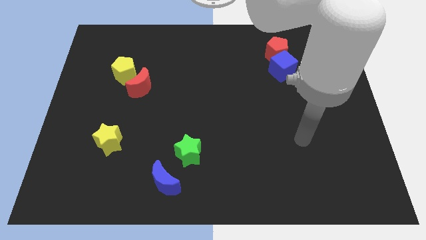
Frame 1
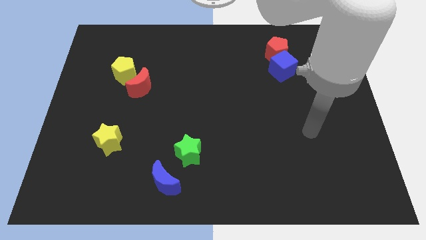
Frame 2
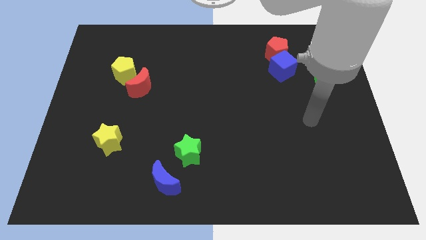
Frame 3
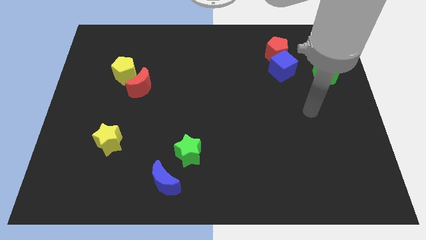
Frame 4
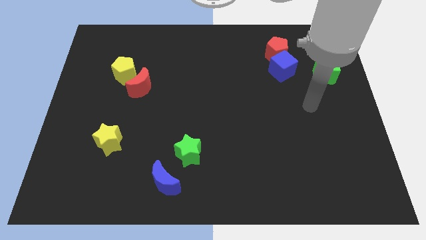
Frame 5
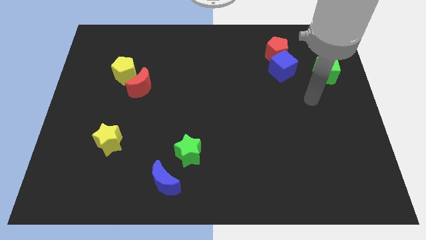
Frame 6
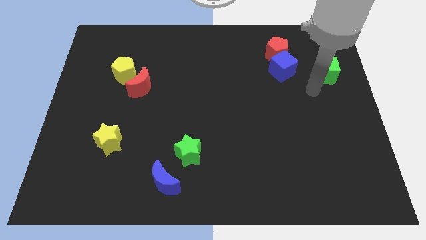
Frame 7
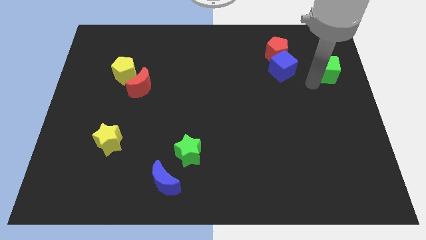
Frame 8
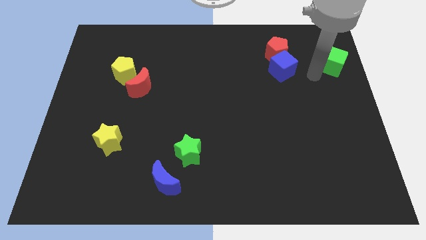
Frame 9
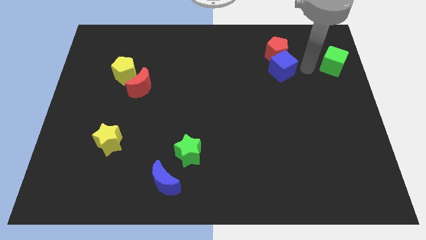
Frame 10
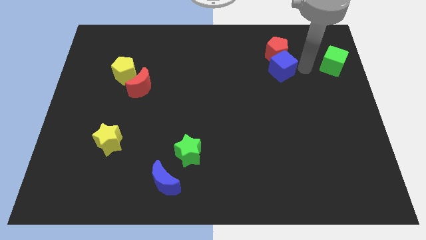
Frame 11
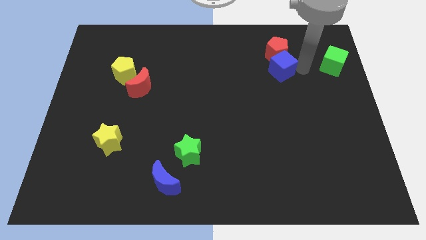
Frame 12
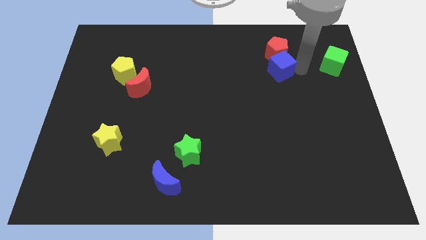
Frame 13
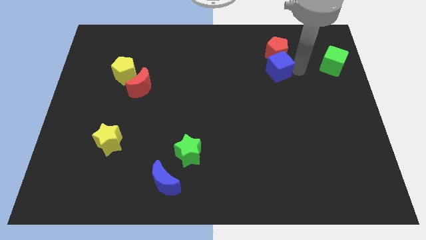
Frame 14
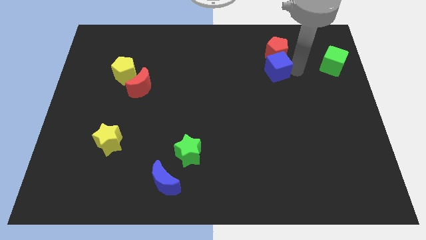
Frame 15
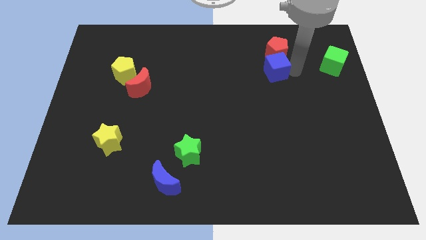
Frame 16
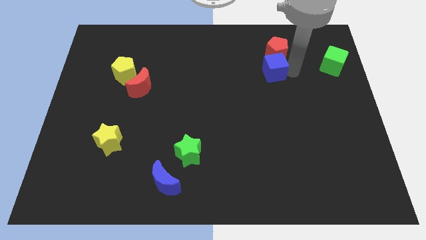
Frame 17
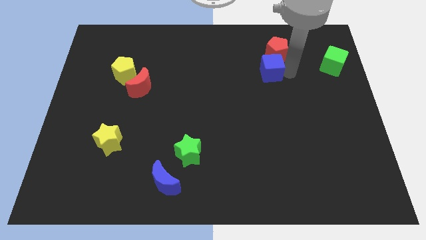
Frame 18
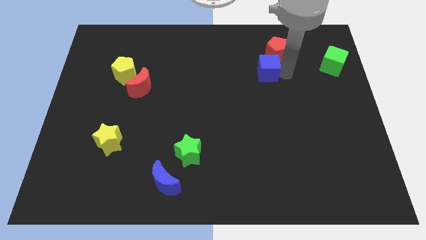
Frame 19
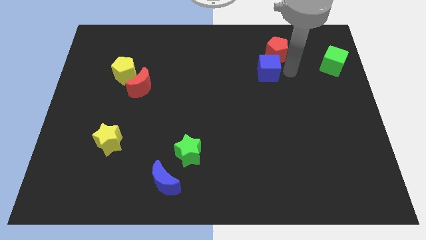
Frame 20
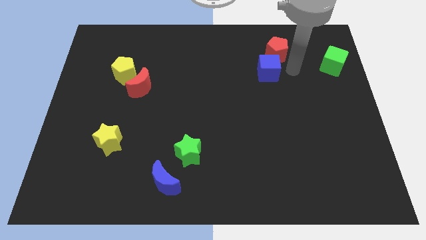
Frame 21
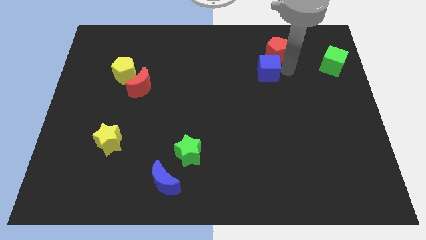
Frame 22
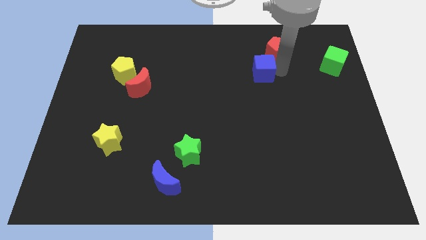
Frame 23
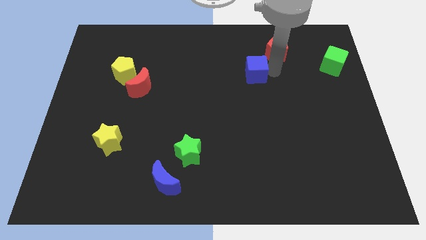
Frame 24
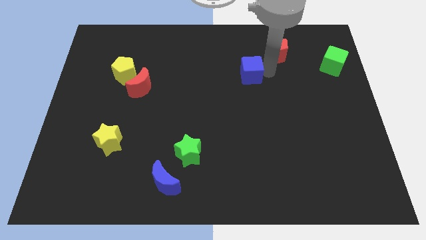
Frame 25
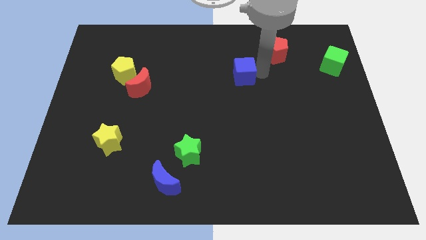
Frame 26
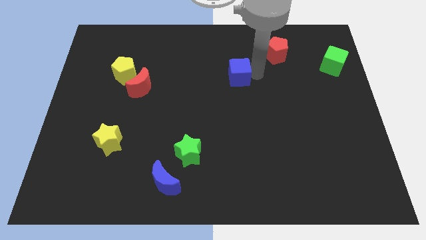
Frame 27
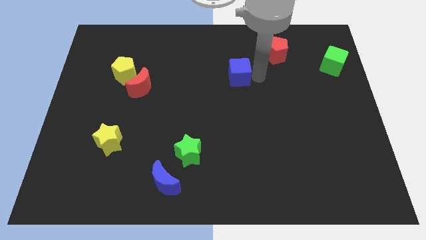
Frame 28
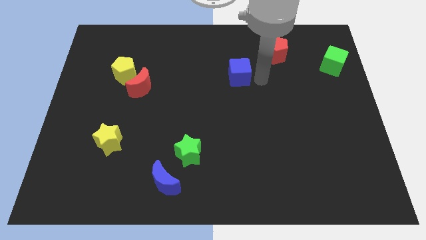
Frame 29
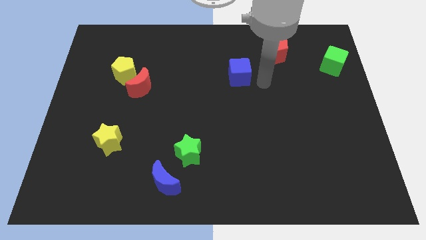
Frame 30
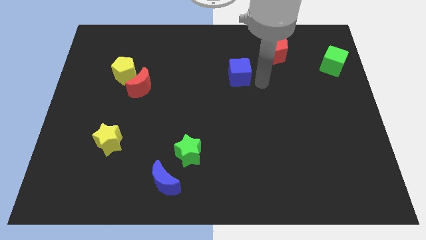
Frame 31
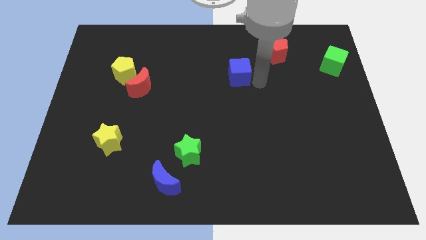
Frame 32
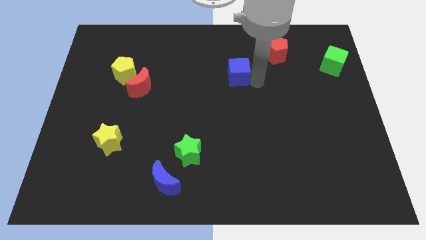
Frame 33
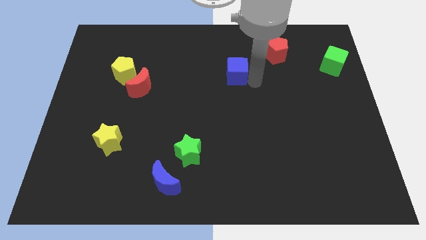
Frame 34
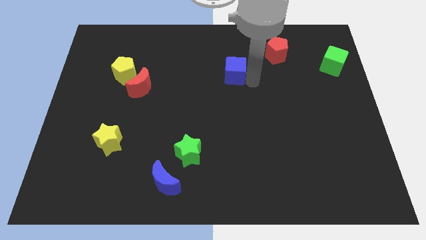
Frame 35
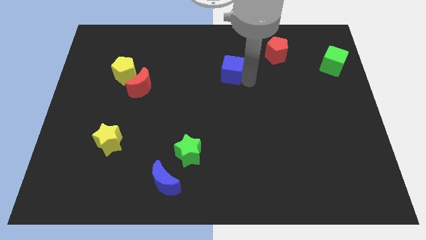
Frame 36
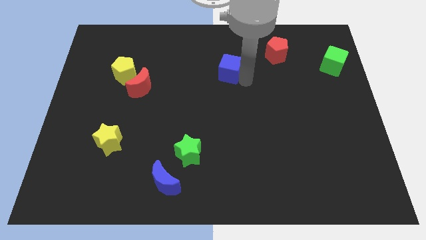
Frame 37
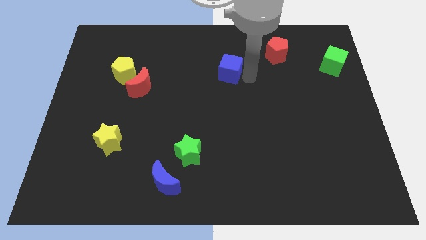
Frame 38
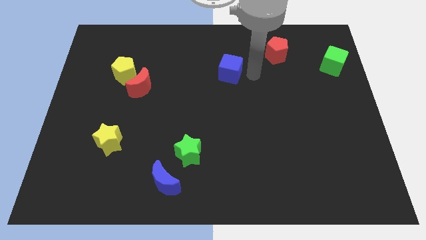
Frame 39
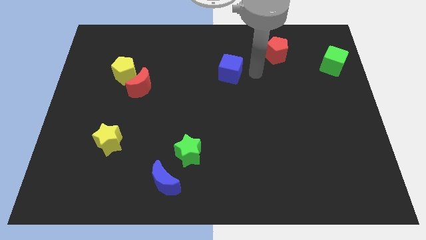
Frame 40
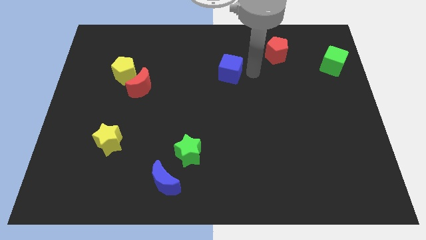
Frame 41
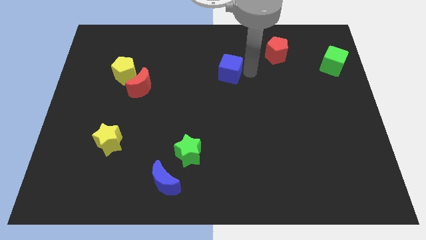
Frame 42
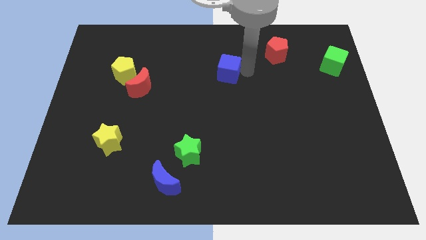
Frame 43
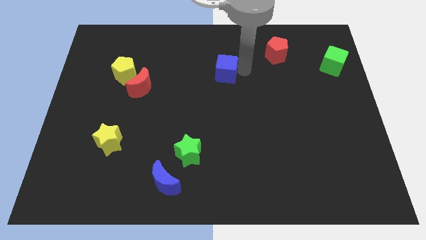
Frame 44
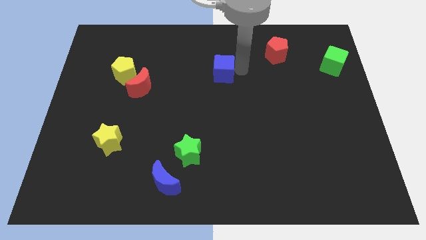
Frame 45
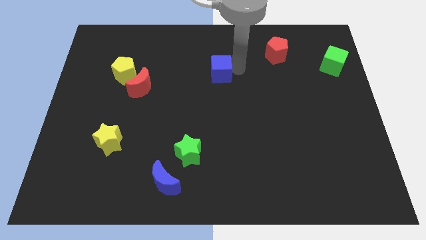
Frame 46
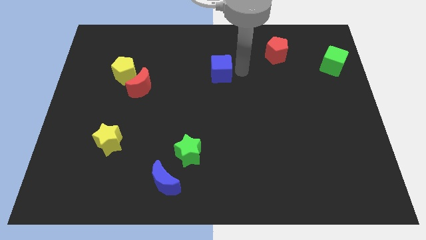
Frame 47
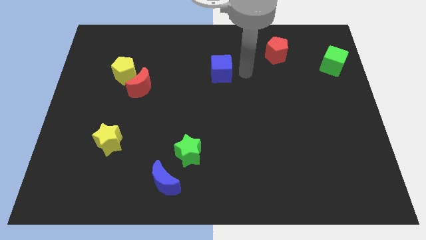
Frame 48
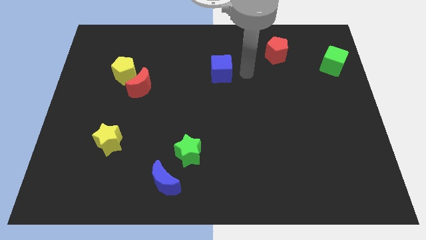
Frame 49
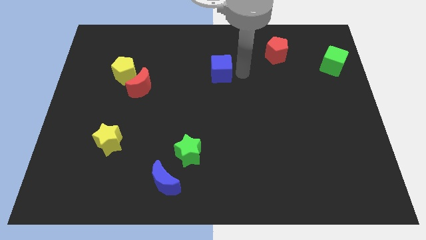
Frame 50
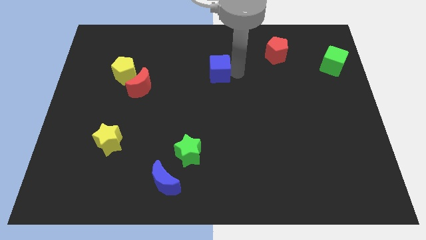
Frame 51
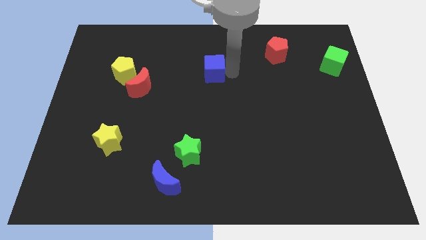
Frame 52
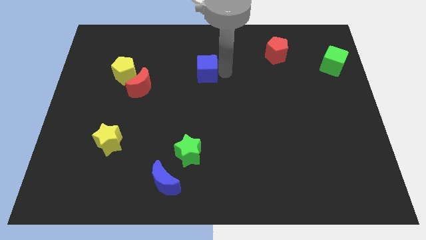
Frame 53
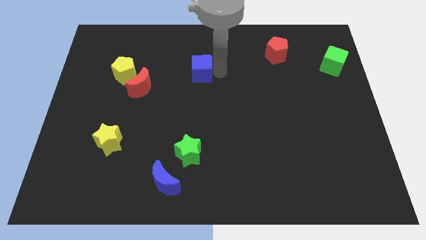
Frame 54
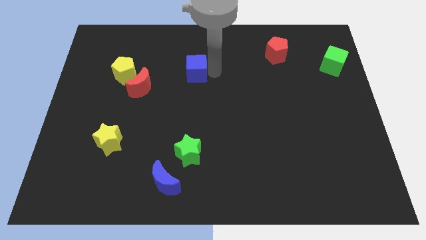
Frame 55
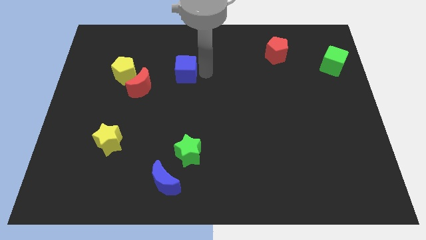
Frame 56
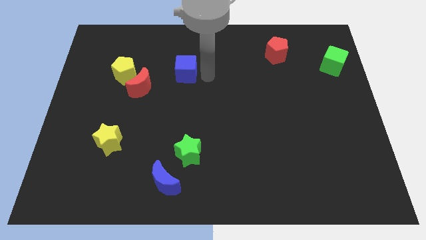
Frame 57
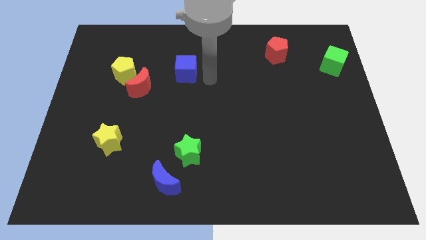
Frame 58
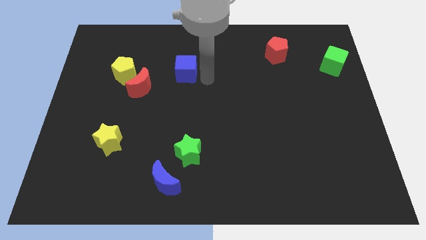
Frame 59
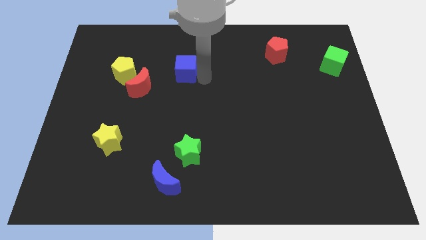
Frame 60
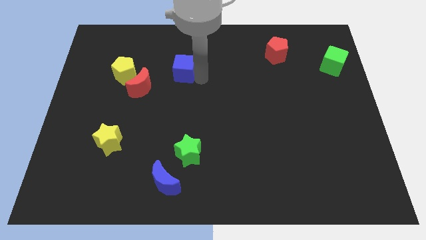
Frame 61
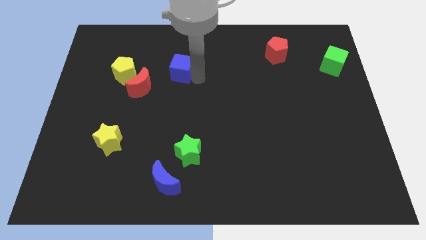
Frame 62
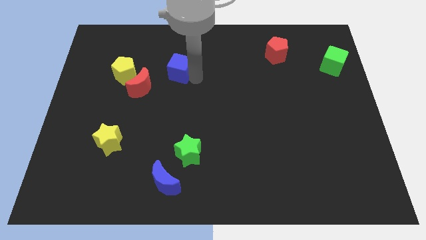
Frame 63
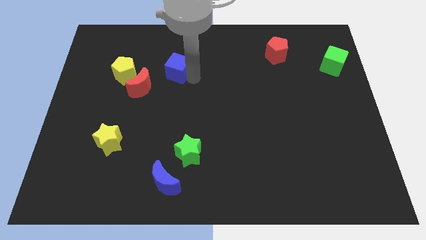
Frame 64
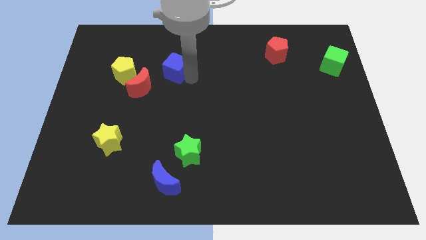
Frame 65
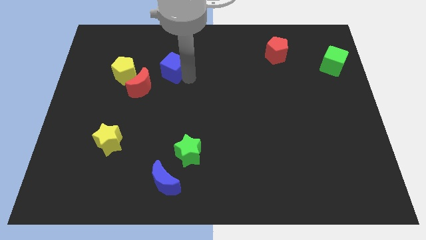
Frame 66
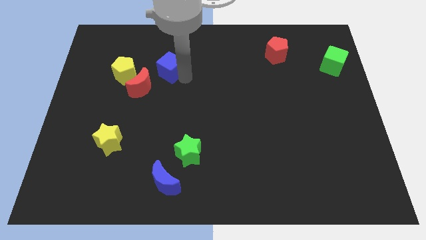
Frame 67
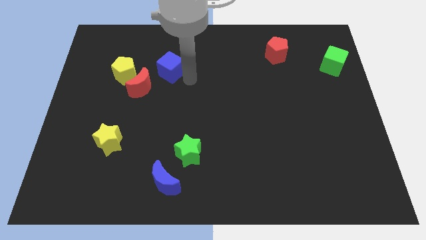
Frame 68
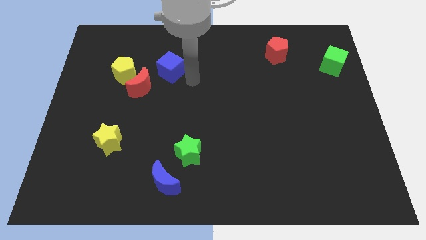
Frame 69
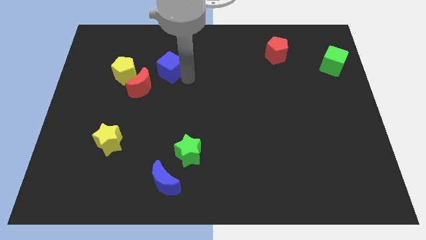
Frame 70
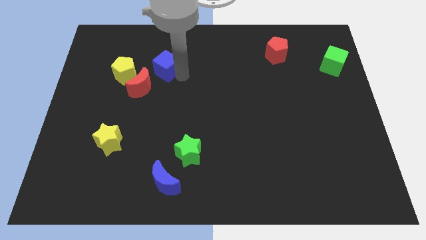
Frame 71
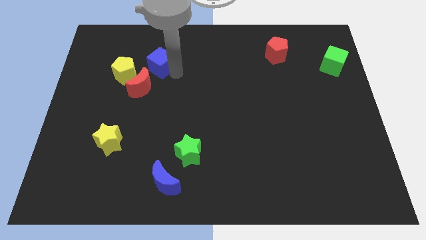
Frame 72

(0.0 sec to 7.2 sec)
put the blue cube diagonally up and to the right of the yellow pentagon
